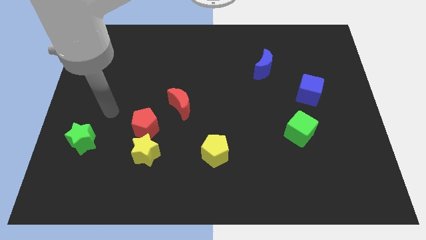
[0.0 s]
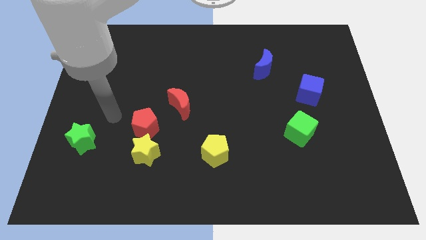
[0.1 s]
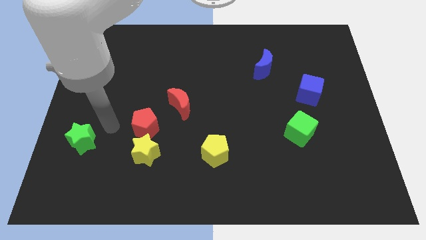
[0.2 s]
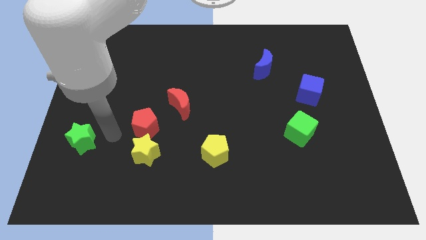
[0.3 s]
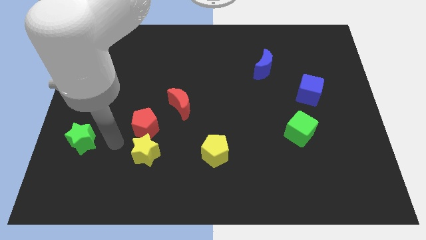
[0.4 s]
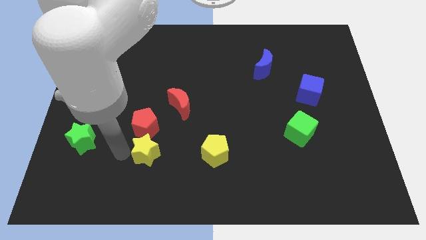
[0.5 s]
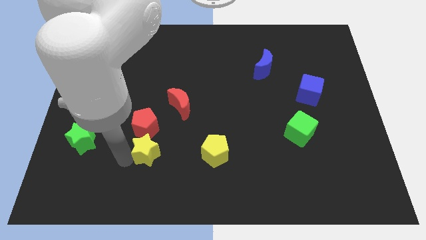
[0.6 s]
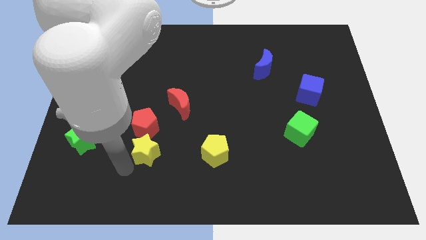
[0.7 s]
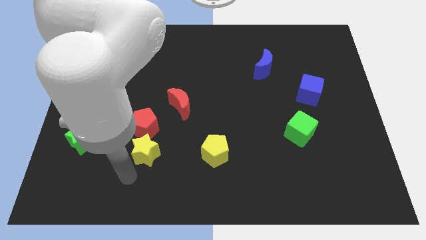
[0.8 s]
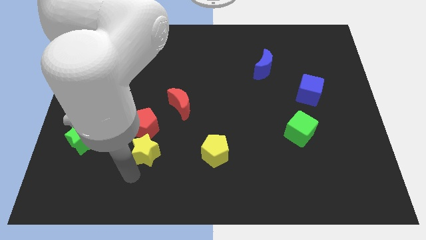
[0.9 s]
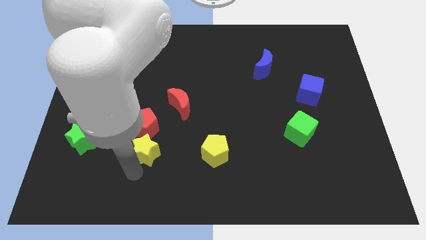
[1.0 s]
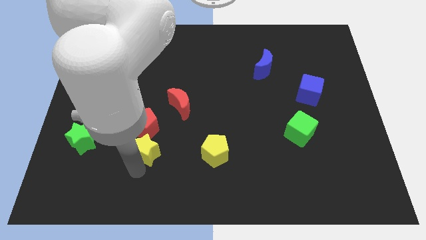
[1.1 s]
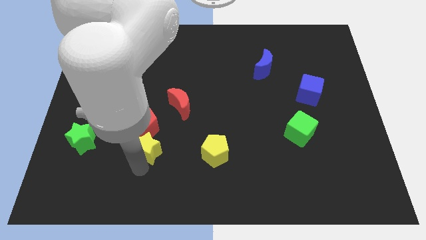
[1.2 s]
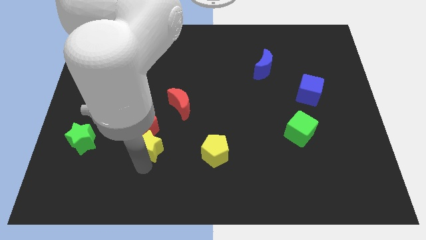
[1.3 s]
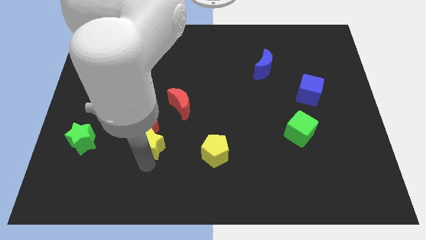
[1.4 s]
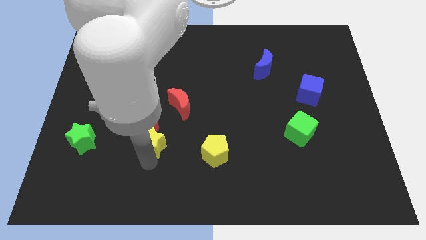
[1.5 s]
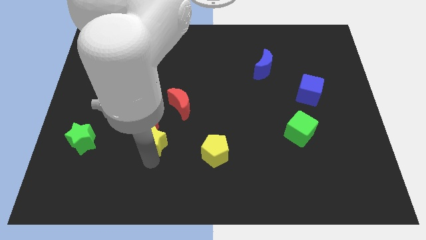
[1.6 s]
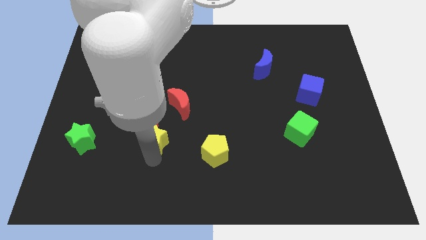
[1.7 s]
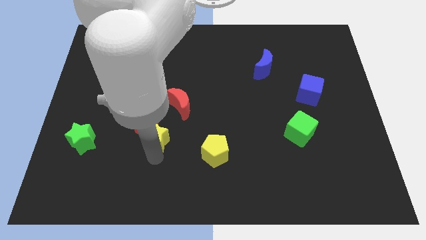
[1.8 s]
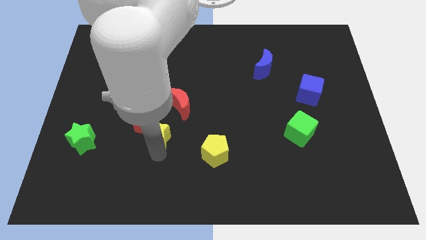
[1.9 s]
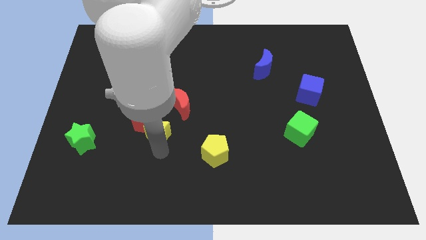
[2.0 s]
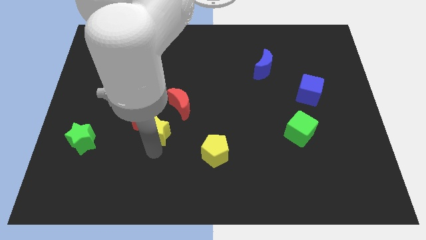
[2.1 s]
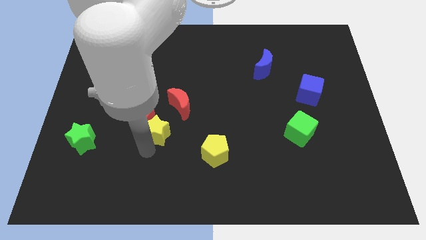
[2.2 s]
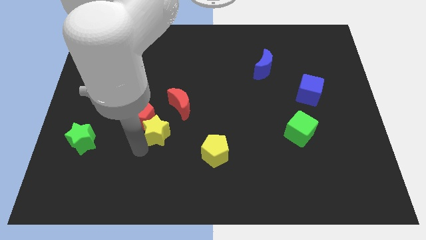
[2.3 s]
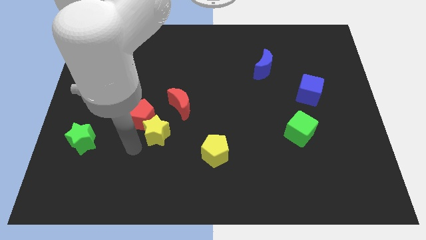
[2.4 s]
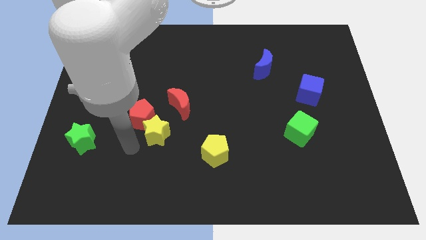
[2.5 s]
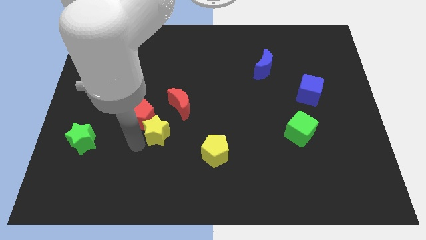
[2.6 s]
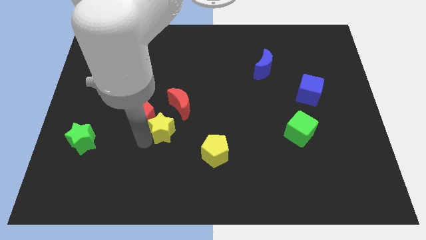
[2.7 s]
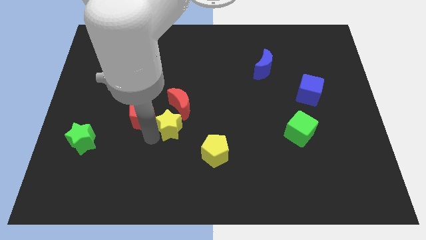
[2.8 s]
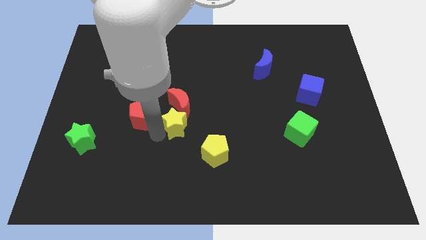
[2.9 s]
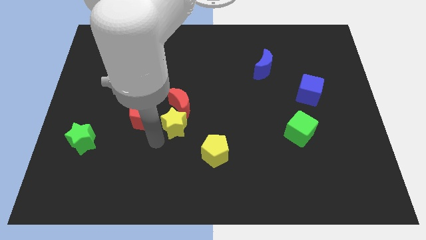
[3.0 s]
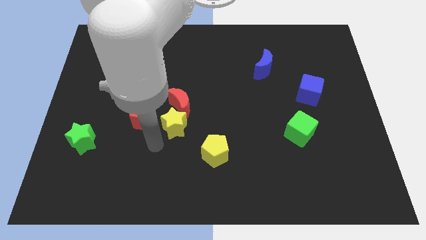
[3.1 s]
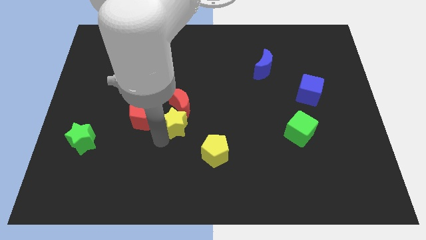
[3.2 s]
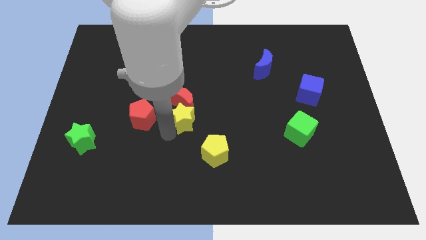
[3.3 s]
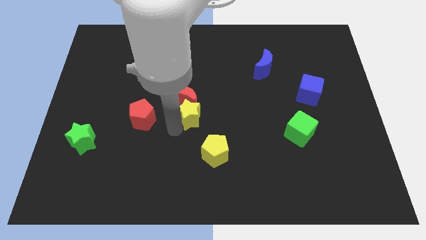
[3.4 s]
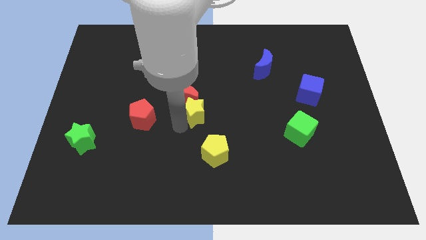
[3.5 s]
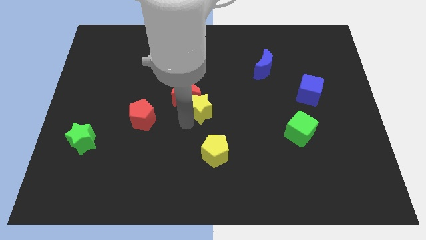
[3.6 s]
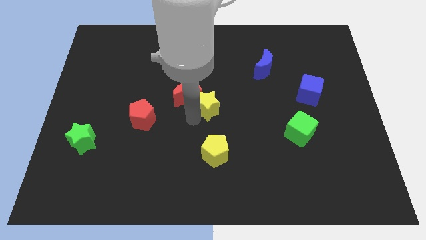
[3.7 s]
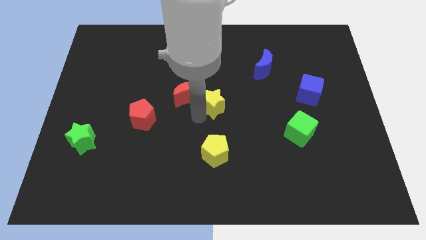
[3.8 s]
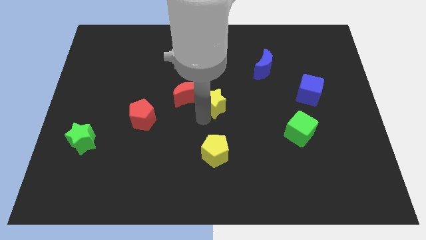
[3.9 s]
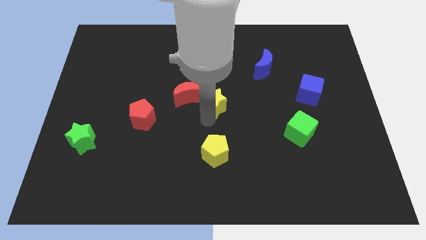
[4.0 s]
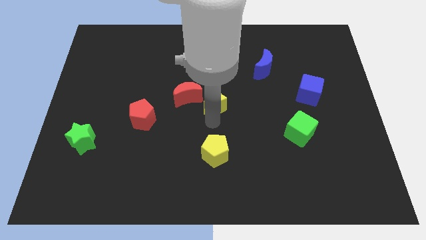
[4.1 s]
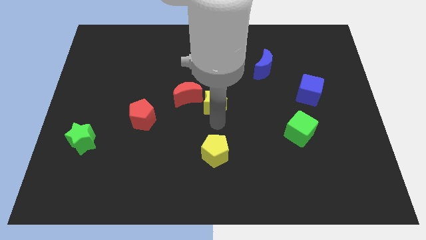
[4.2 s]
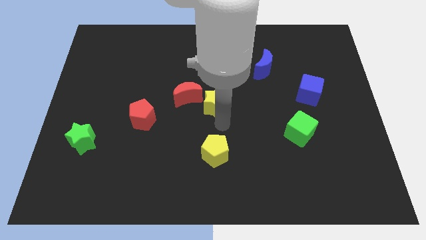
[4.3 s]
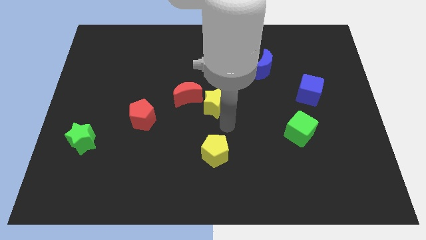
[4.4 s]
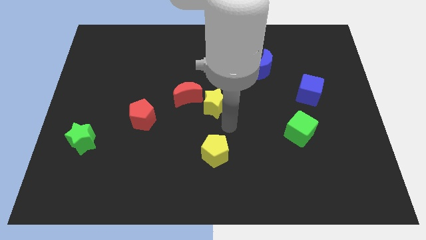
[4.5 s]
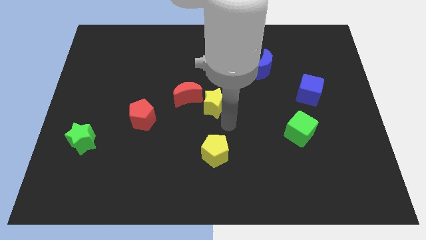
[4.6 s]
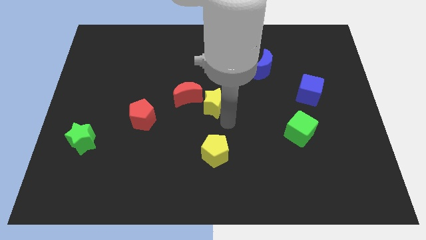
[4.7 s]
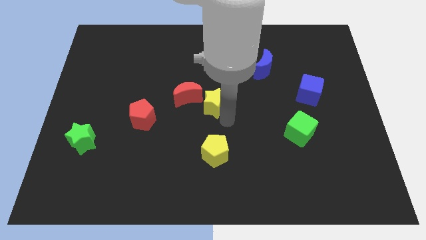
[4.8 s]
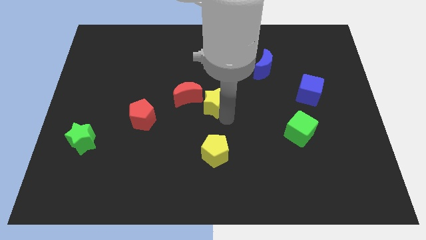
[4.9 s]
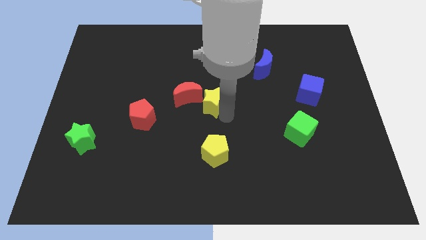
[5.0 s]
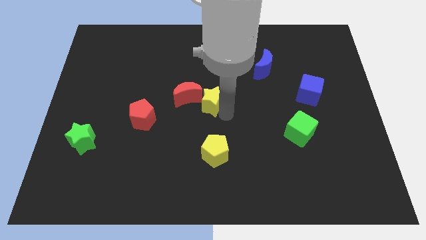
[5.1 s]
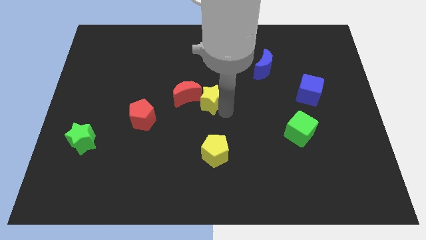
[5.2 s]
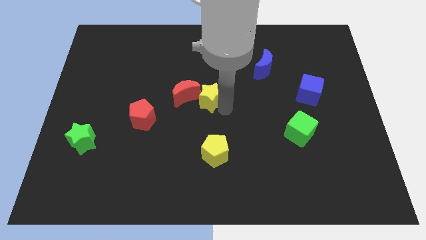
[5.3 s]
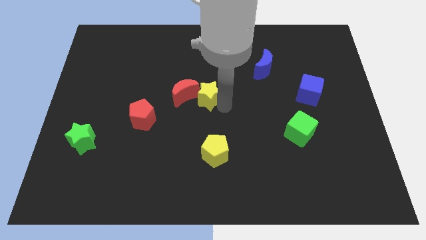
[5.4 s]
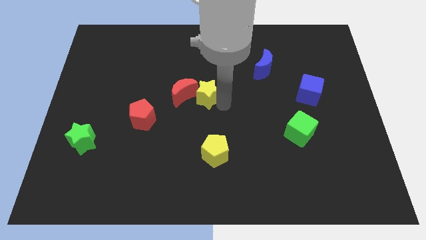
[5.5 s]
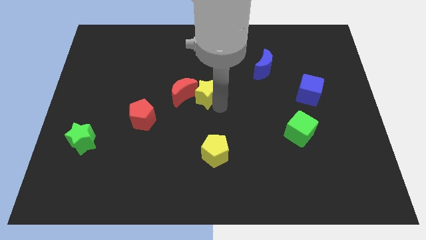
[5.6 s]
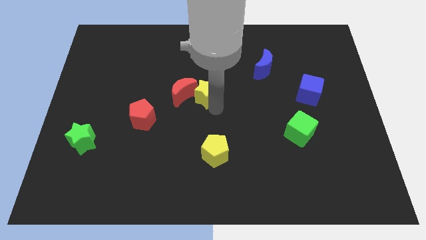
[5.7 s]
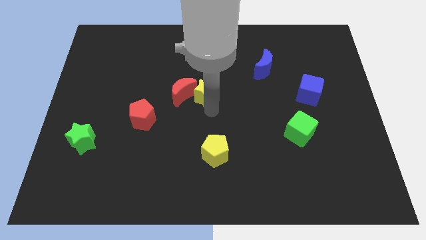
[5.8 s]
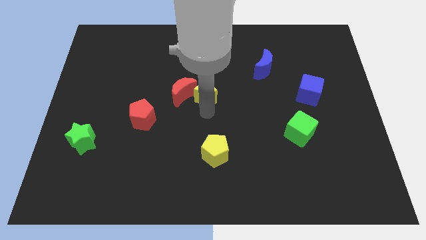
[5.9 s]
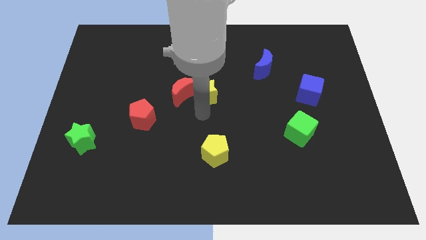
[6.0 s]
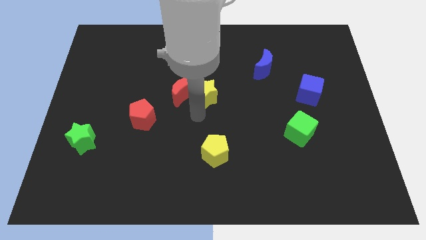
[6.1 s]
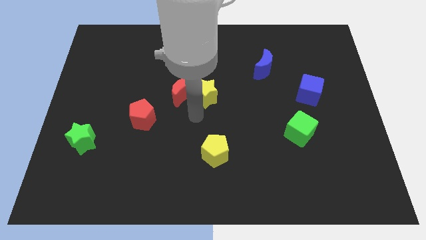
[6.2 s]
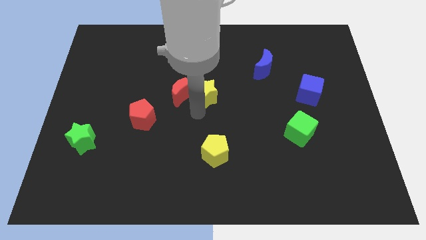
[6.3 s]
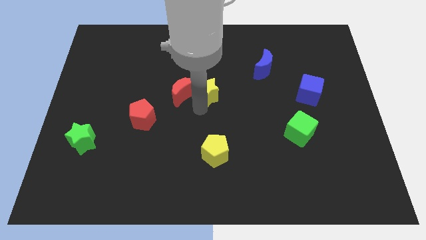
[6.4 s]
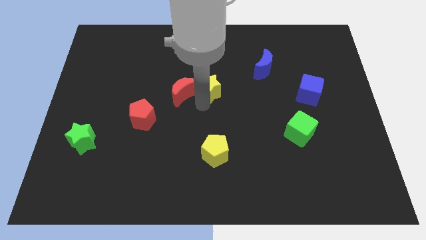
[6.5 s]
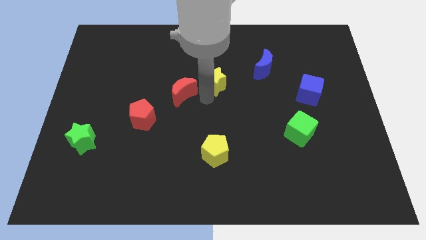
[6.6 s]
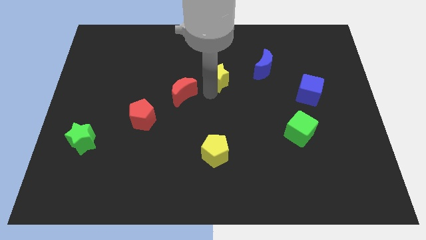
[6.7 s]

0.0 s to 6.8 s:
move the yellow star to the left side of the blue moon

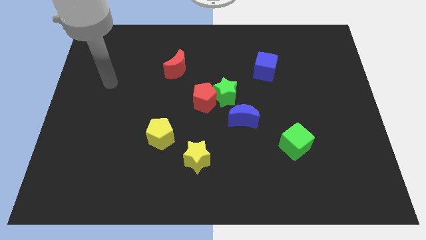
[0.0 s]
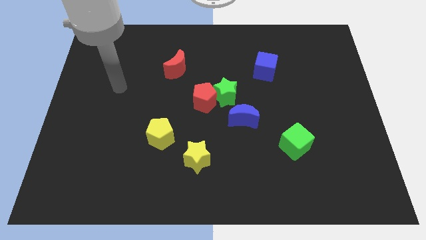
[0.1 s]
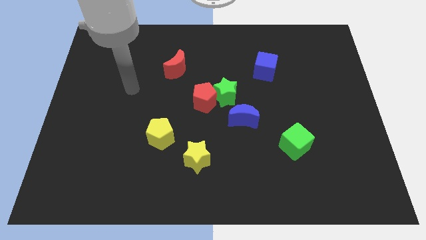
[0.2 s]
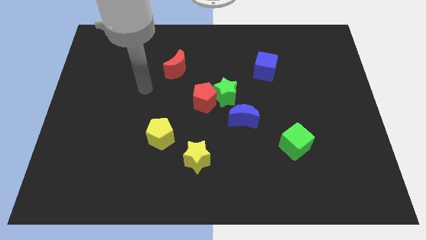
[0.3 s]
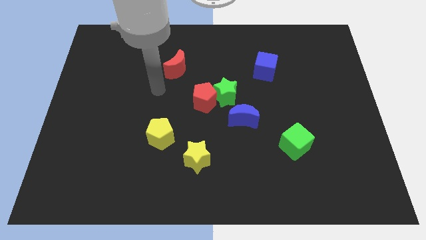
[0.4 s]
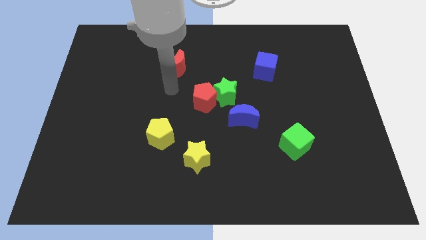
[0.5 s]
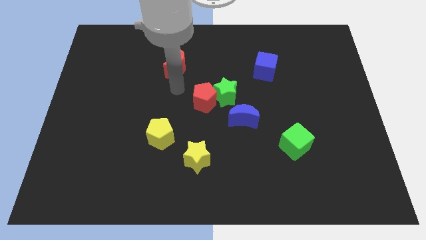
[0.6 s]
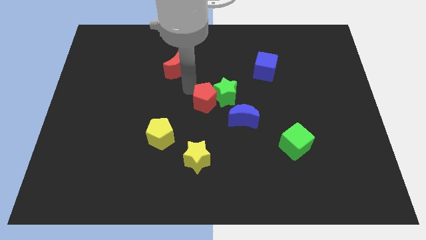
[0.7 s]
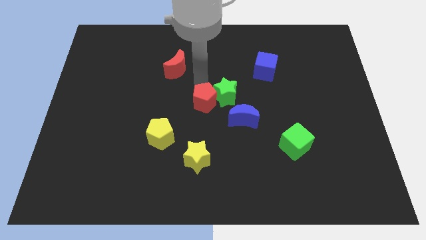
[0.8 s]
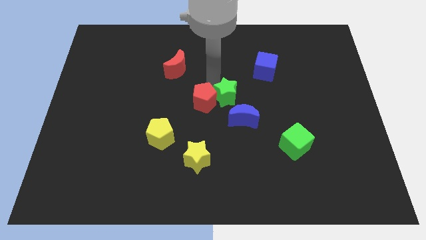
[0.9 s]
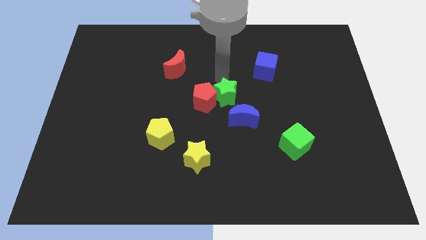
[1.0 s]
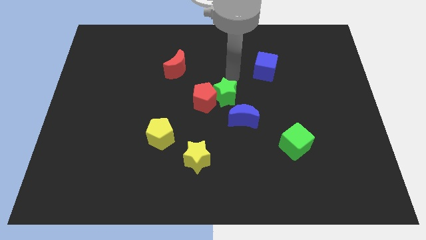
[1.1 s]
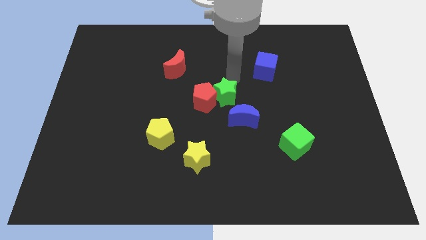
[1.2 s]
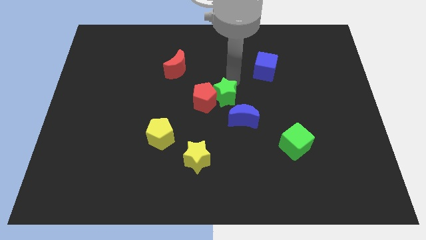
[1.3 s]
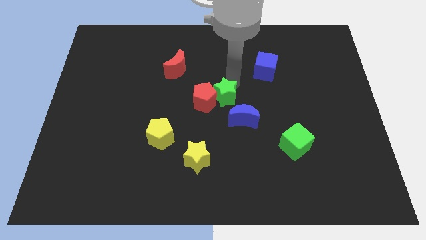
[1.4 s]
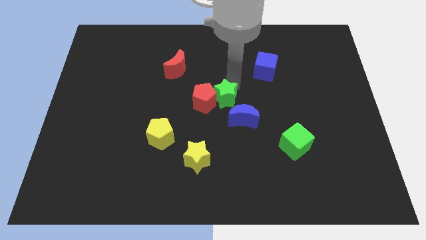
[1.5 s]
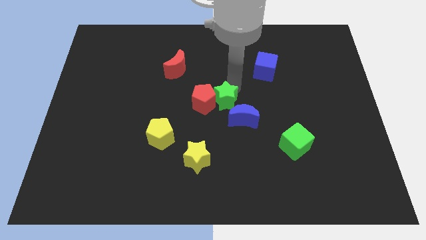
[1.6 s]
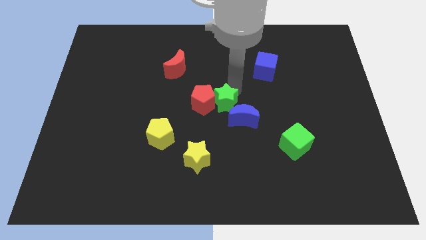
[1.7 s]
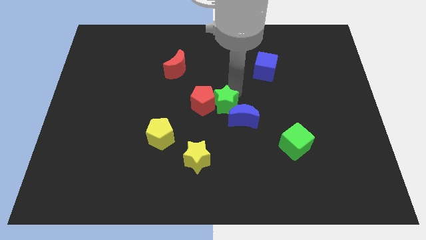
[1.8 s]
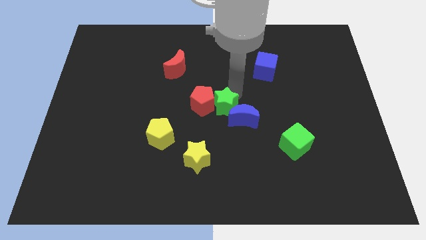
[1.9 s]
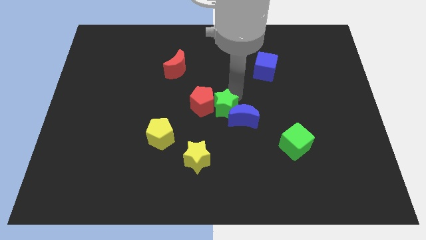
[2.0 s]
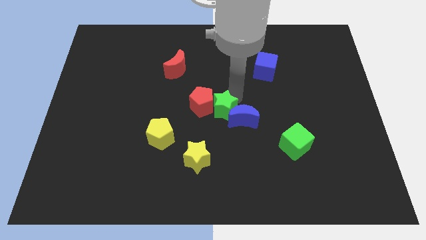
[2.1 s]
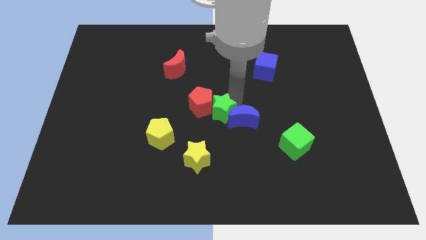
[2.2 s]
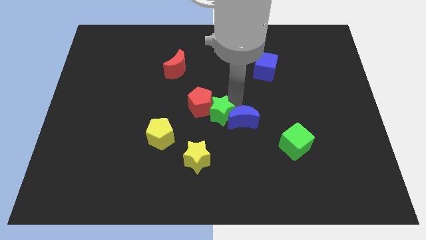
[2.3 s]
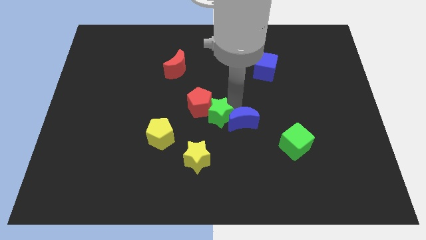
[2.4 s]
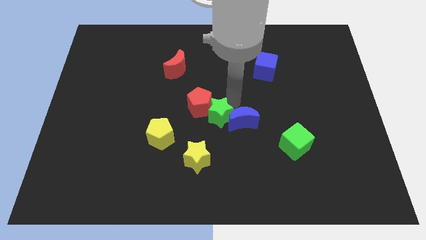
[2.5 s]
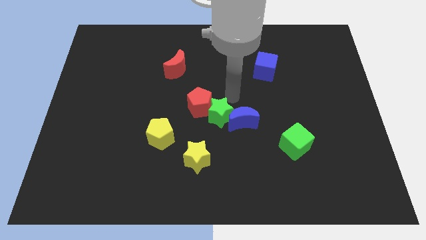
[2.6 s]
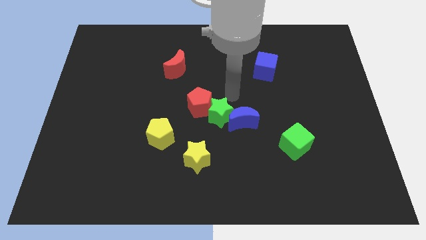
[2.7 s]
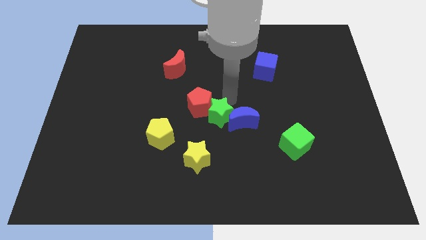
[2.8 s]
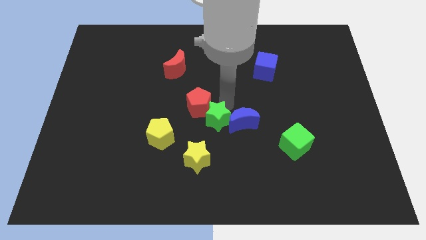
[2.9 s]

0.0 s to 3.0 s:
move the green star to the right of the yellow pentagon
